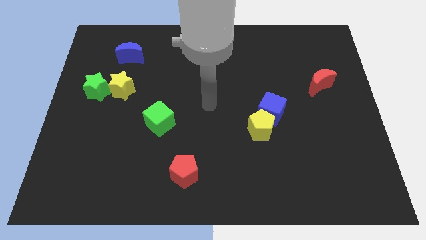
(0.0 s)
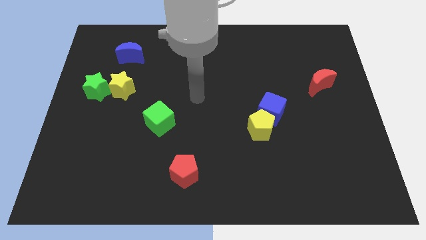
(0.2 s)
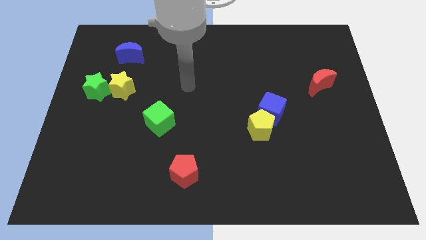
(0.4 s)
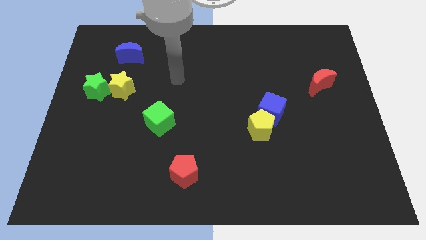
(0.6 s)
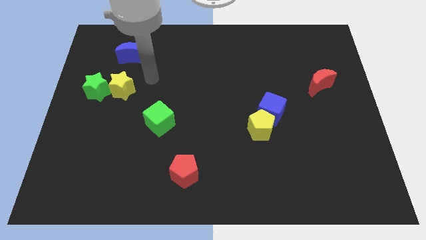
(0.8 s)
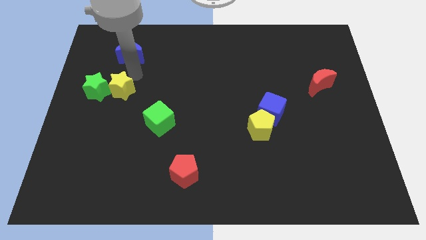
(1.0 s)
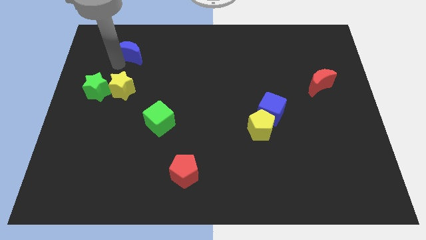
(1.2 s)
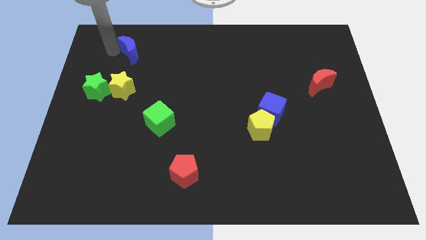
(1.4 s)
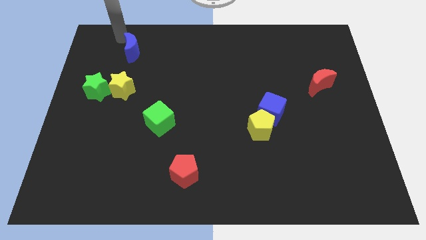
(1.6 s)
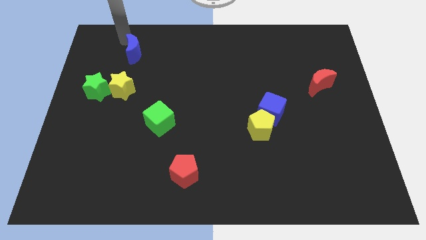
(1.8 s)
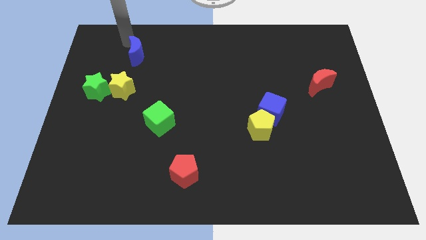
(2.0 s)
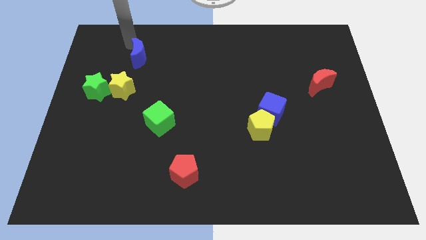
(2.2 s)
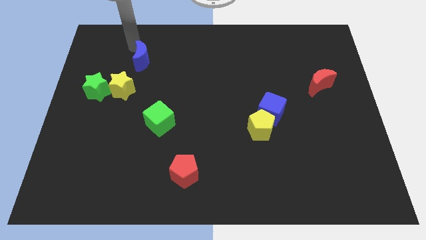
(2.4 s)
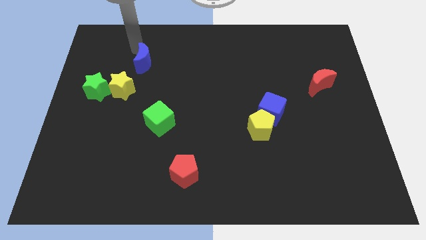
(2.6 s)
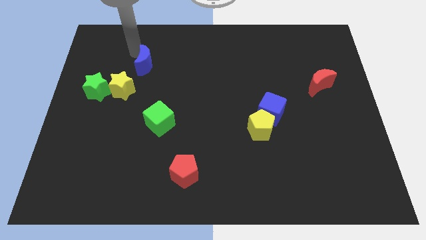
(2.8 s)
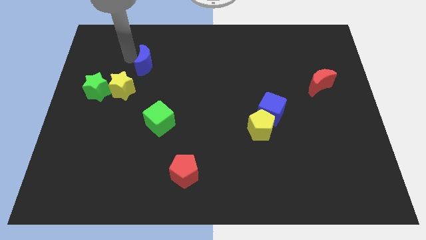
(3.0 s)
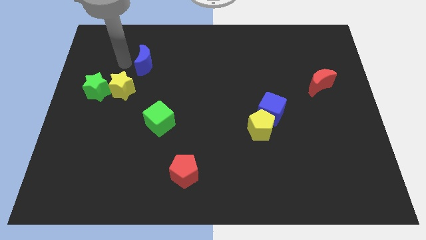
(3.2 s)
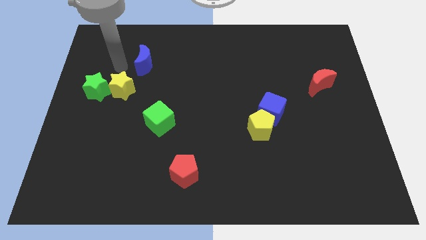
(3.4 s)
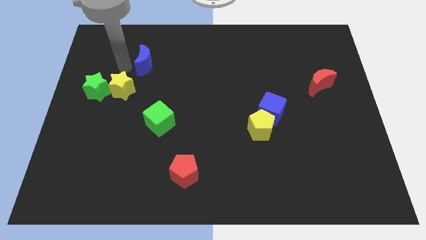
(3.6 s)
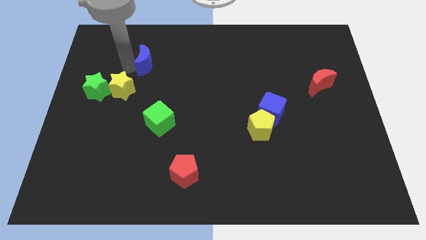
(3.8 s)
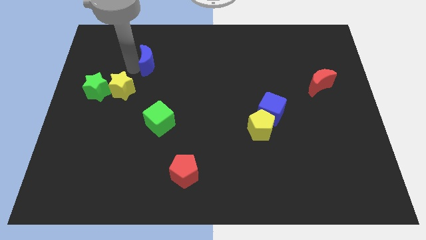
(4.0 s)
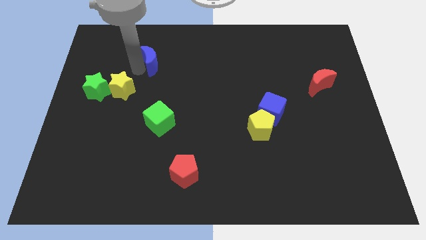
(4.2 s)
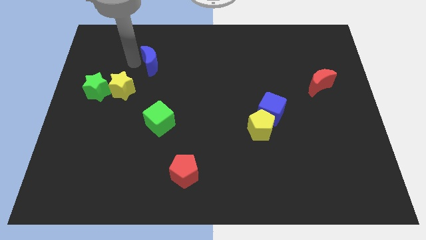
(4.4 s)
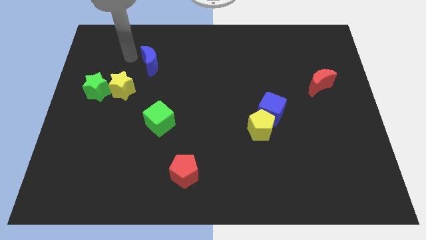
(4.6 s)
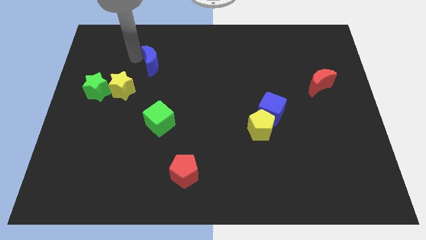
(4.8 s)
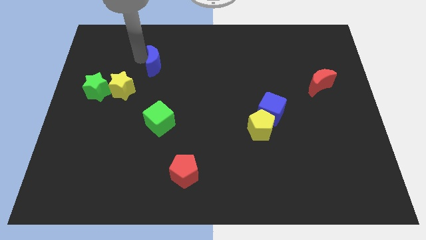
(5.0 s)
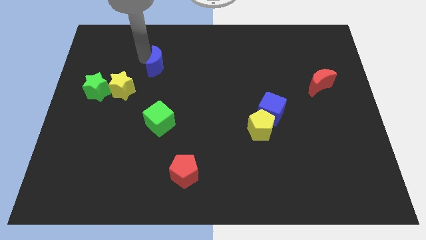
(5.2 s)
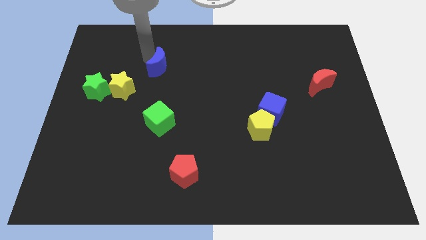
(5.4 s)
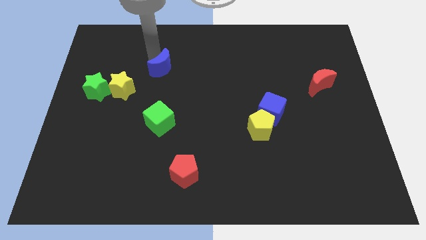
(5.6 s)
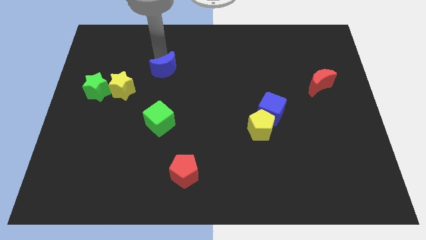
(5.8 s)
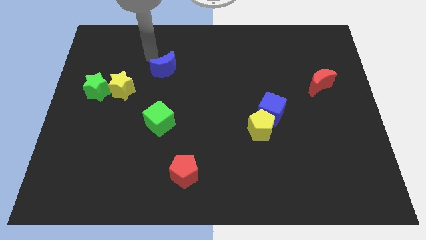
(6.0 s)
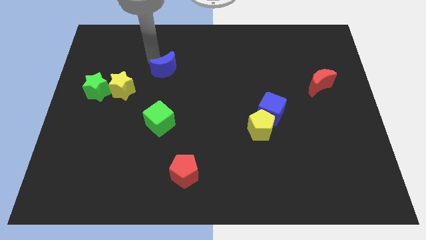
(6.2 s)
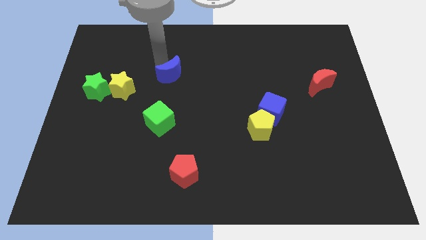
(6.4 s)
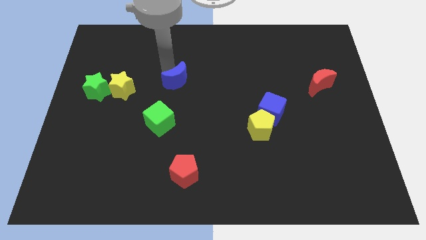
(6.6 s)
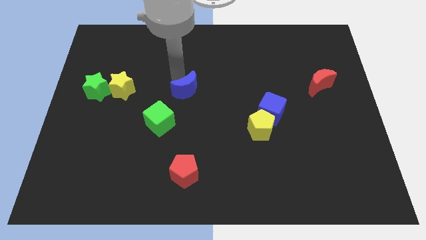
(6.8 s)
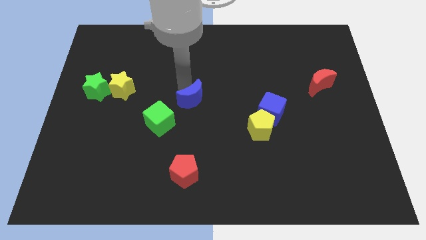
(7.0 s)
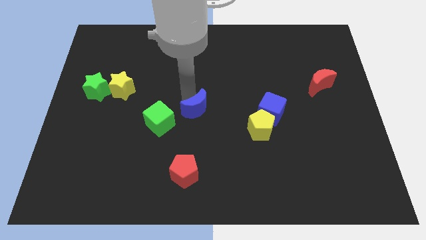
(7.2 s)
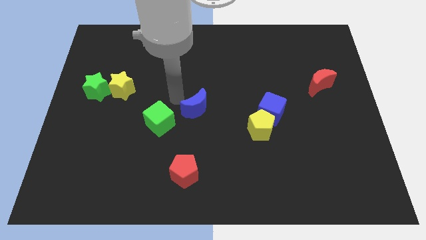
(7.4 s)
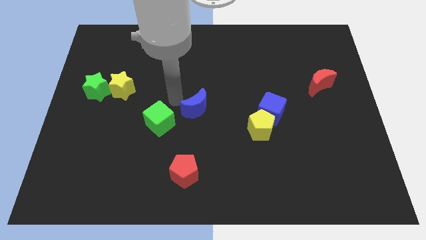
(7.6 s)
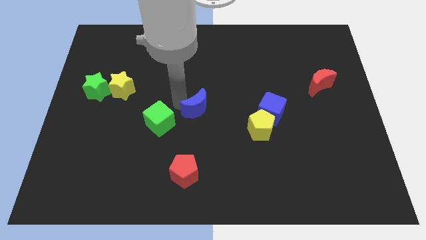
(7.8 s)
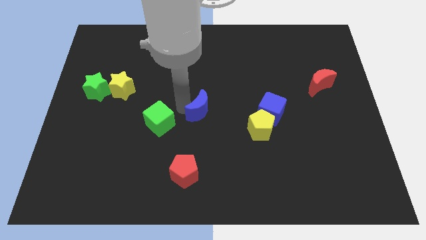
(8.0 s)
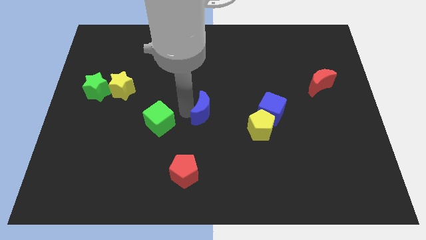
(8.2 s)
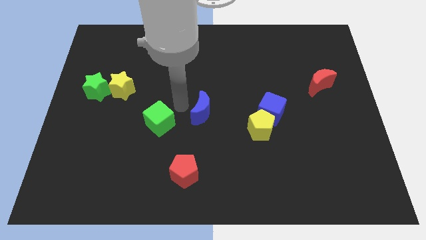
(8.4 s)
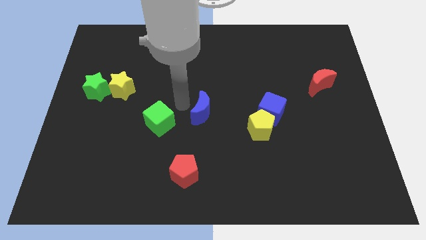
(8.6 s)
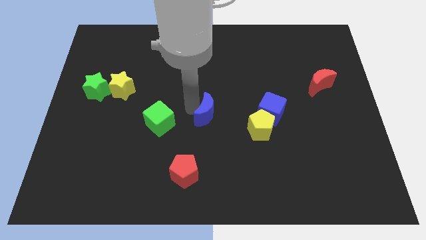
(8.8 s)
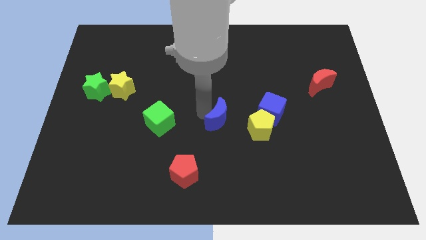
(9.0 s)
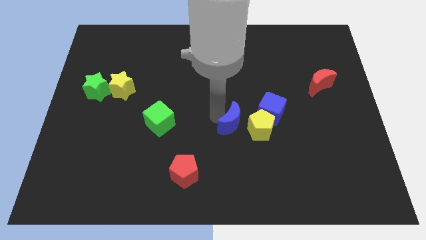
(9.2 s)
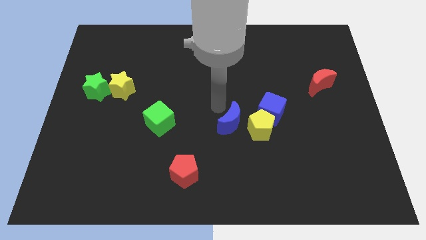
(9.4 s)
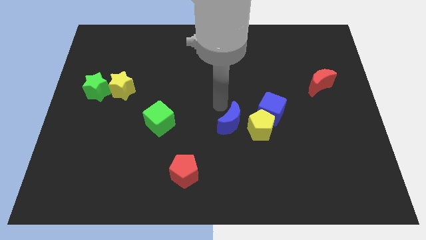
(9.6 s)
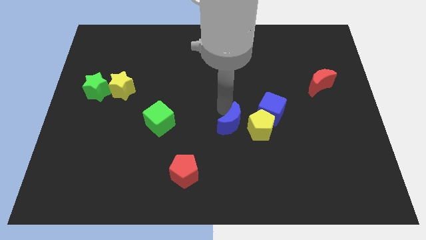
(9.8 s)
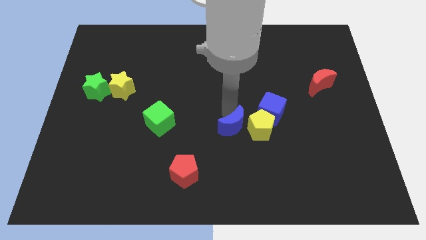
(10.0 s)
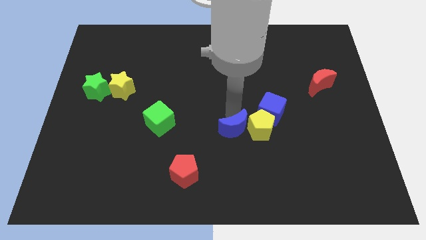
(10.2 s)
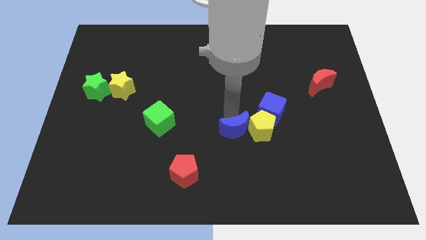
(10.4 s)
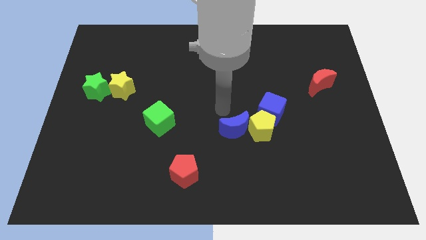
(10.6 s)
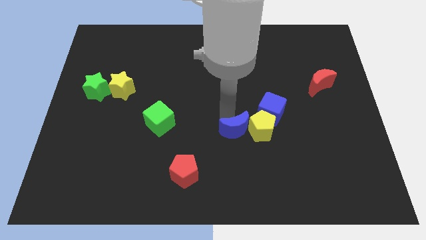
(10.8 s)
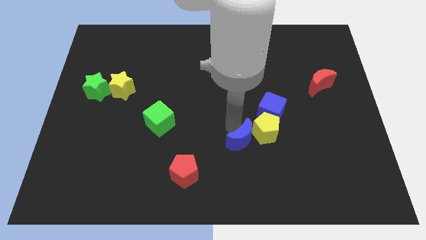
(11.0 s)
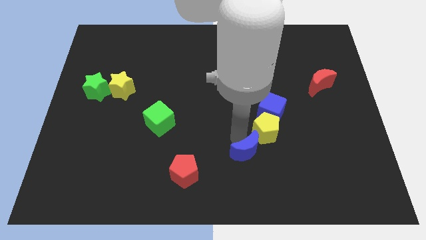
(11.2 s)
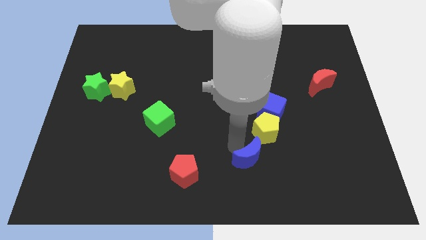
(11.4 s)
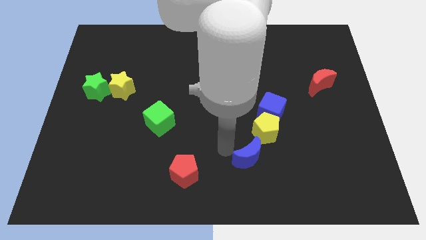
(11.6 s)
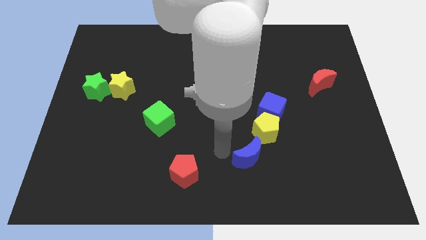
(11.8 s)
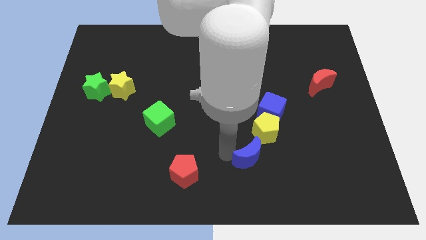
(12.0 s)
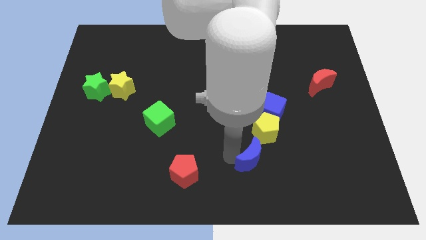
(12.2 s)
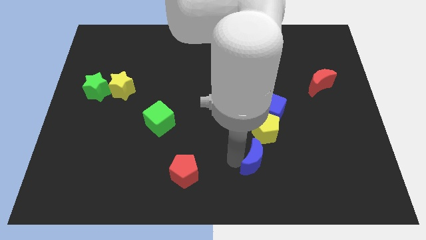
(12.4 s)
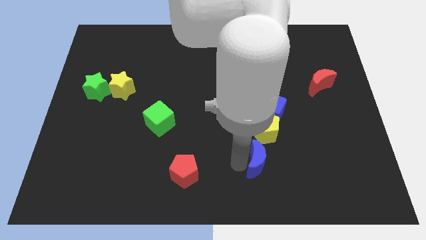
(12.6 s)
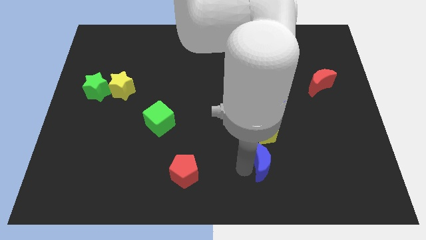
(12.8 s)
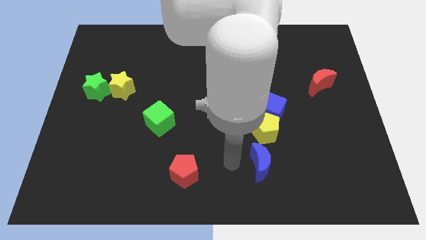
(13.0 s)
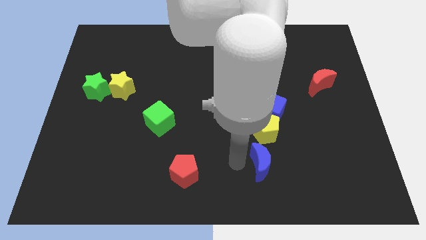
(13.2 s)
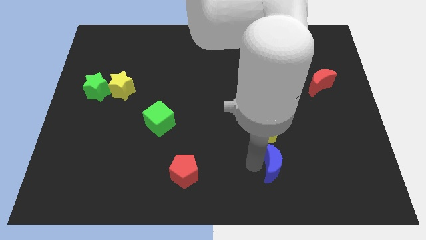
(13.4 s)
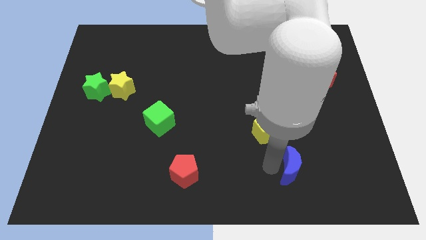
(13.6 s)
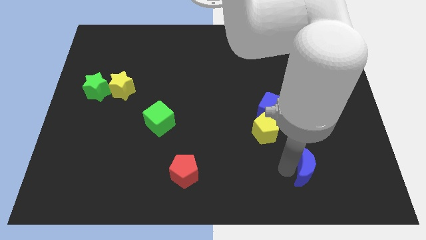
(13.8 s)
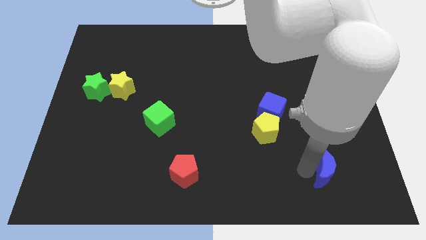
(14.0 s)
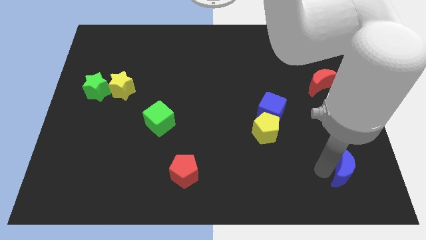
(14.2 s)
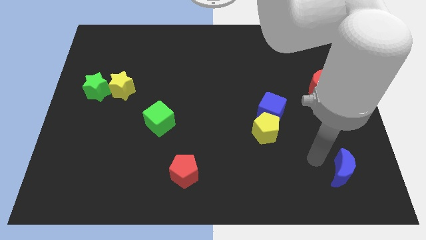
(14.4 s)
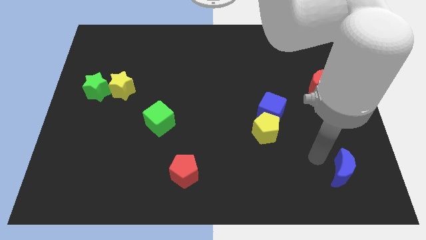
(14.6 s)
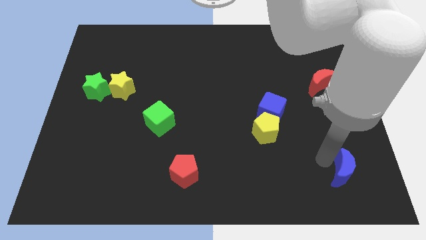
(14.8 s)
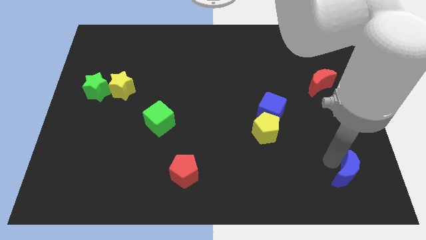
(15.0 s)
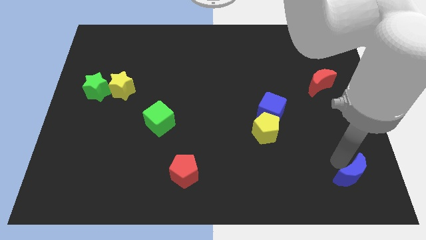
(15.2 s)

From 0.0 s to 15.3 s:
slide the blue moon to the bottom right corner
